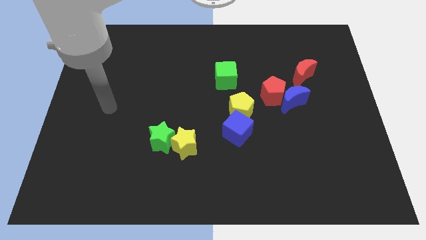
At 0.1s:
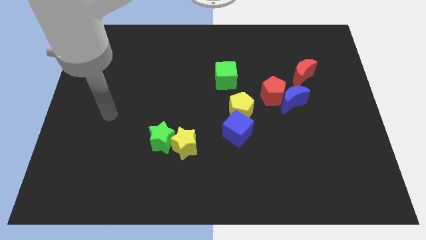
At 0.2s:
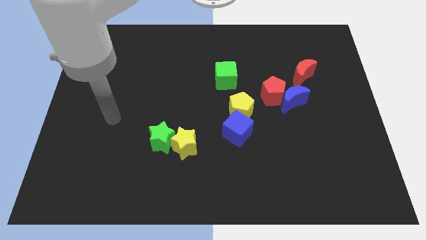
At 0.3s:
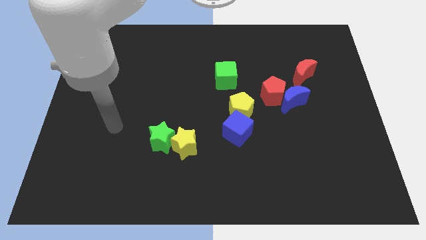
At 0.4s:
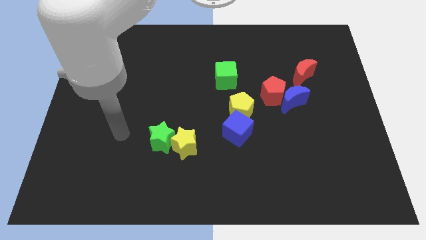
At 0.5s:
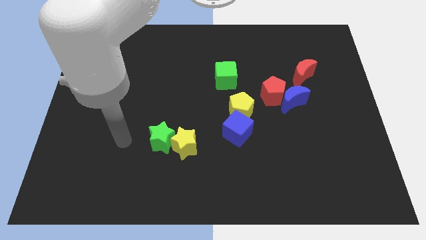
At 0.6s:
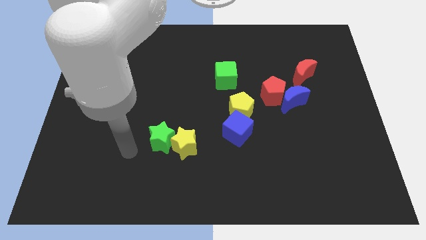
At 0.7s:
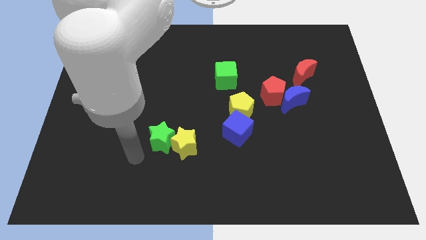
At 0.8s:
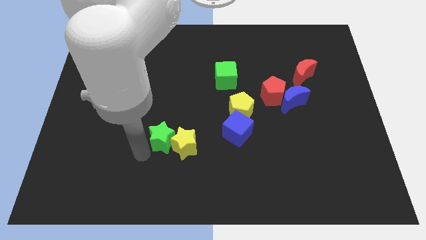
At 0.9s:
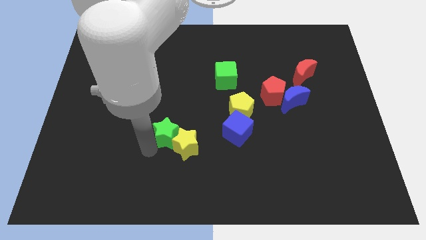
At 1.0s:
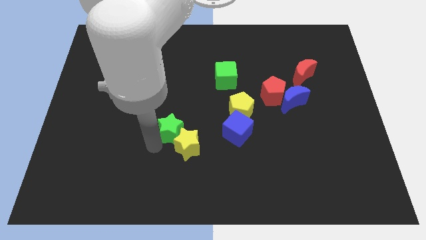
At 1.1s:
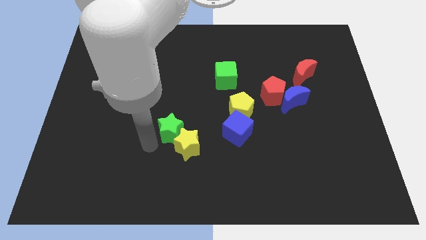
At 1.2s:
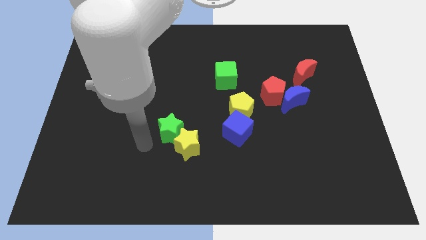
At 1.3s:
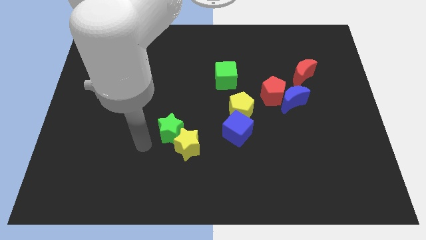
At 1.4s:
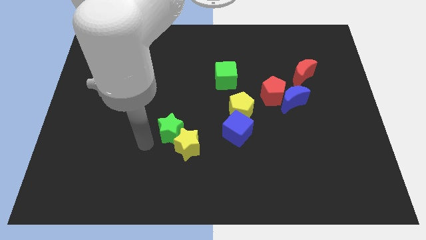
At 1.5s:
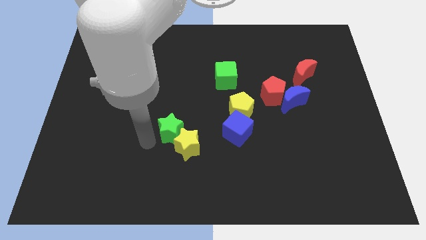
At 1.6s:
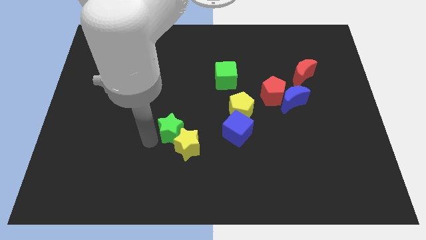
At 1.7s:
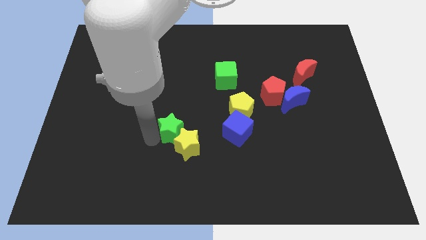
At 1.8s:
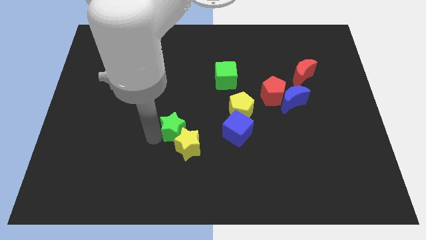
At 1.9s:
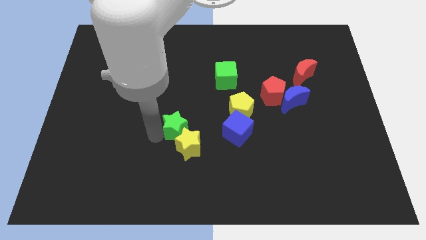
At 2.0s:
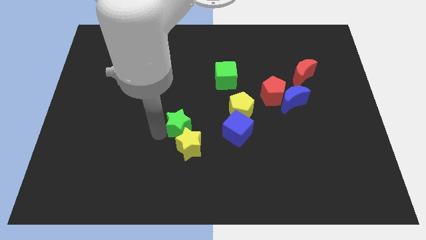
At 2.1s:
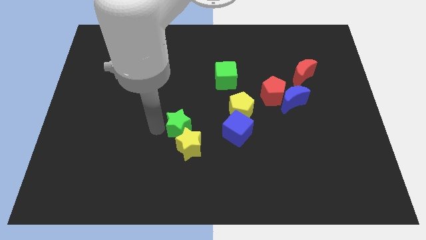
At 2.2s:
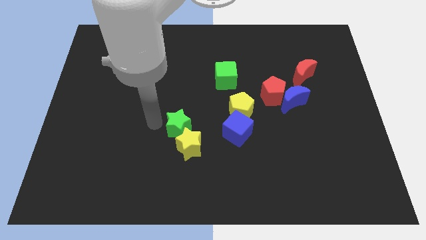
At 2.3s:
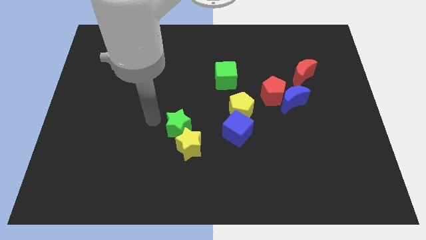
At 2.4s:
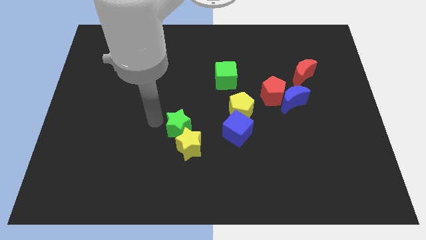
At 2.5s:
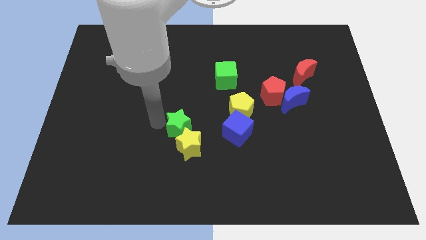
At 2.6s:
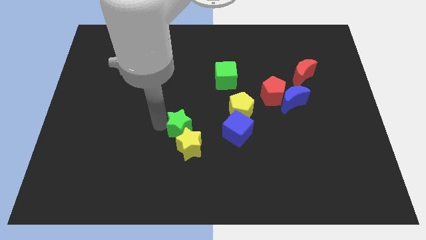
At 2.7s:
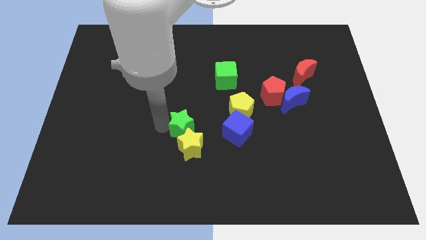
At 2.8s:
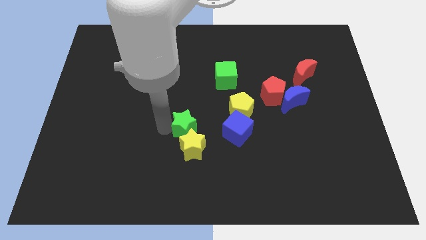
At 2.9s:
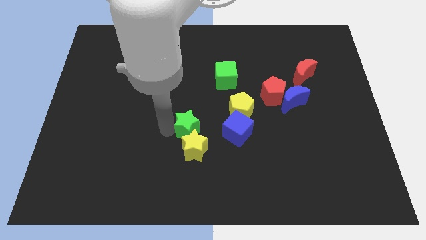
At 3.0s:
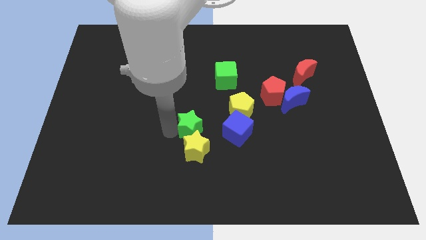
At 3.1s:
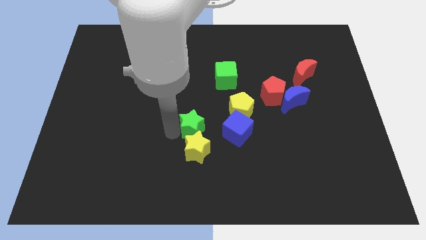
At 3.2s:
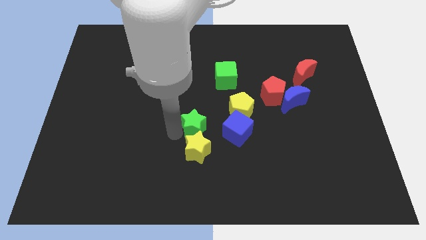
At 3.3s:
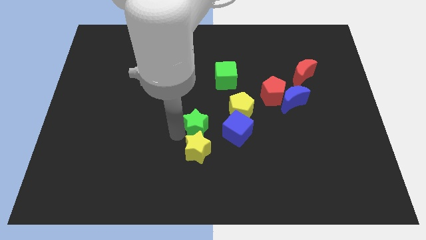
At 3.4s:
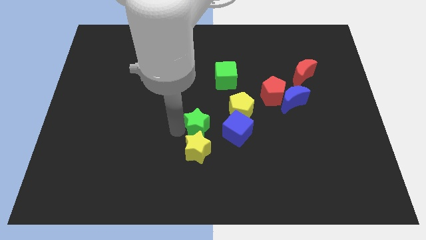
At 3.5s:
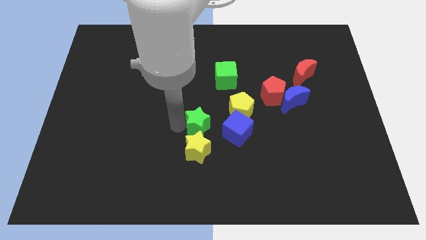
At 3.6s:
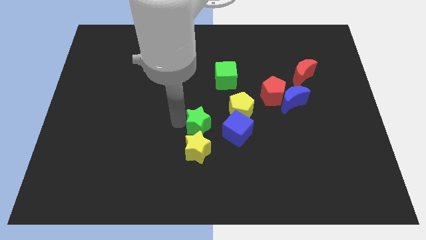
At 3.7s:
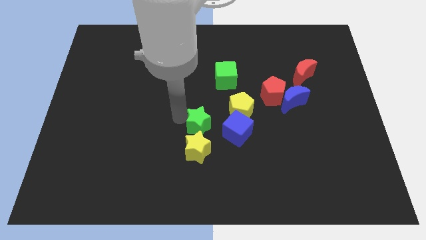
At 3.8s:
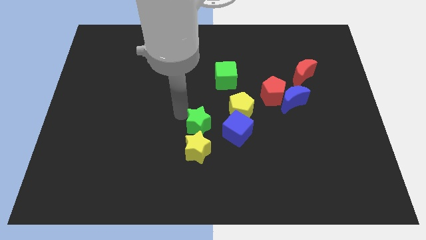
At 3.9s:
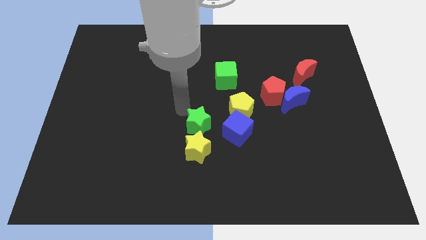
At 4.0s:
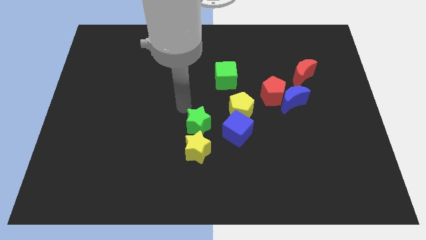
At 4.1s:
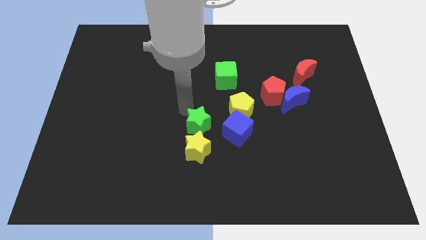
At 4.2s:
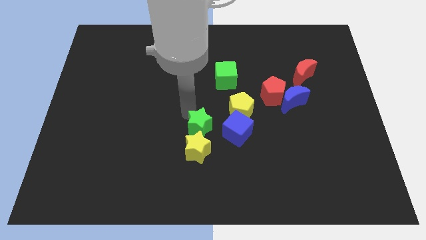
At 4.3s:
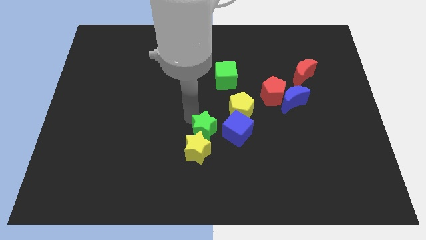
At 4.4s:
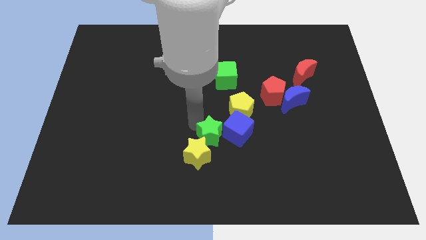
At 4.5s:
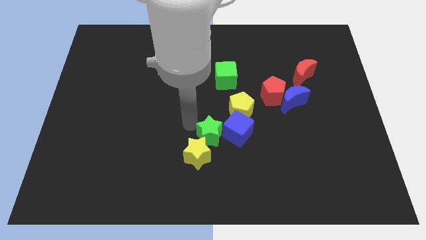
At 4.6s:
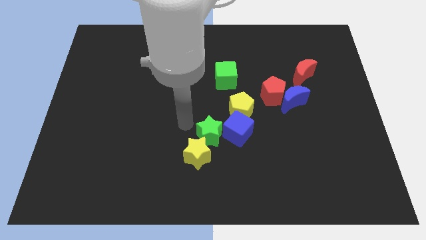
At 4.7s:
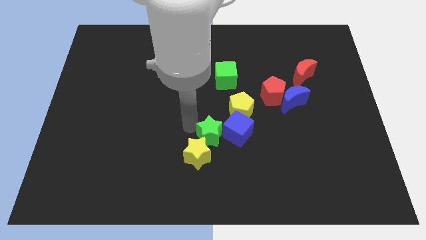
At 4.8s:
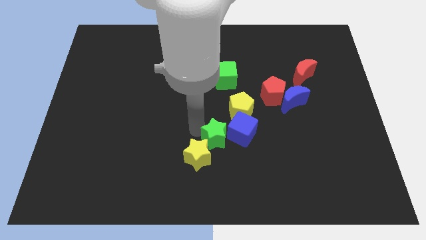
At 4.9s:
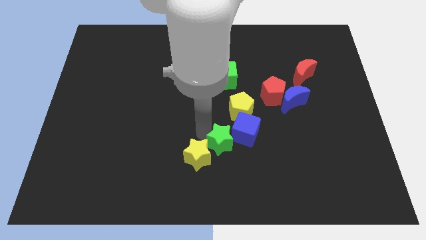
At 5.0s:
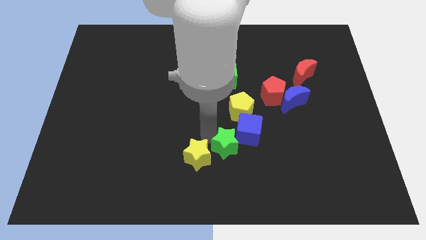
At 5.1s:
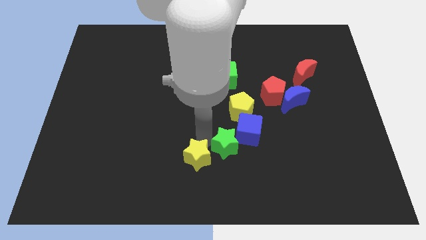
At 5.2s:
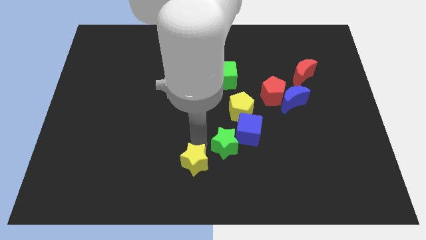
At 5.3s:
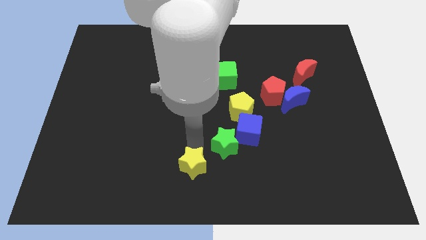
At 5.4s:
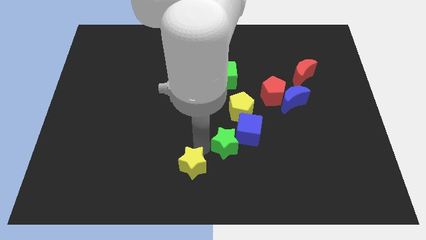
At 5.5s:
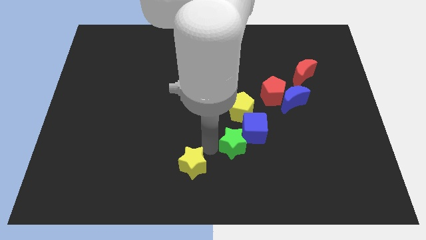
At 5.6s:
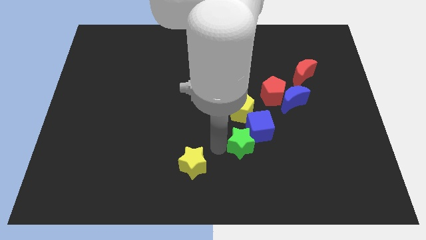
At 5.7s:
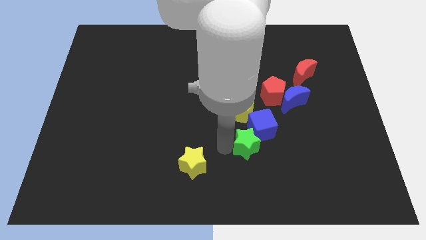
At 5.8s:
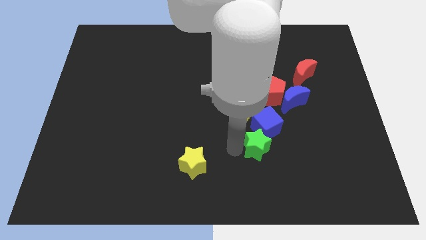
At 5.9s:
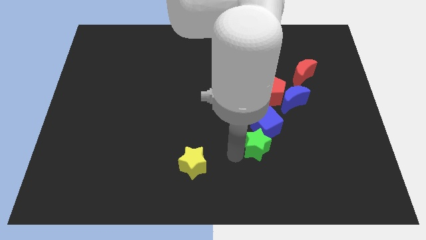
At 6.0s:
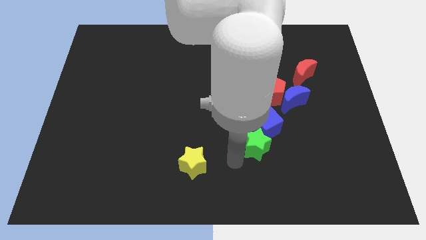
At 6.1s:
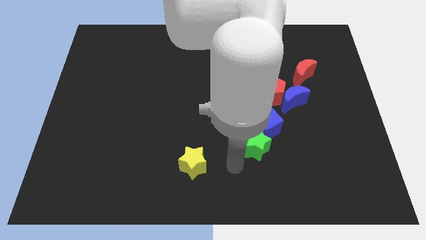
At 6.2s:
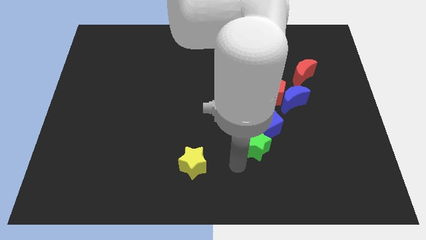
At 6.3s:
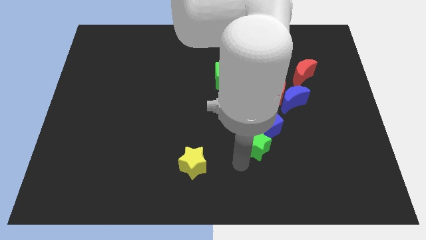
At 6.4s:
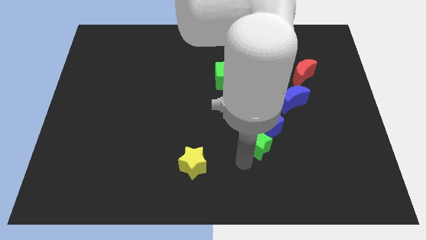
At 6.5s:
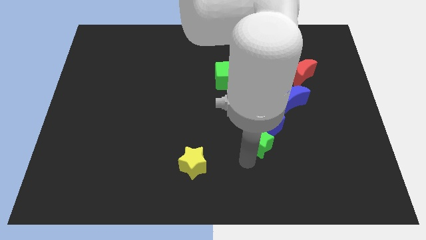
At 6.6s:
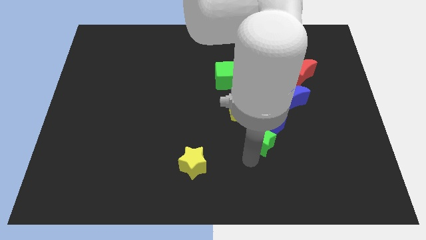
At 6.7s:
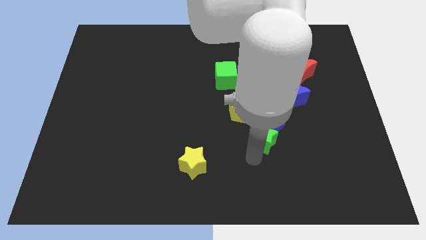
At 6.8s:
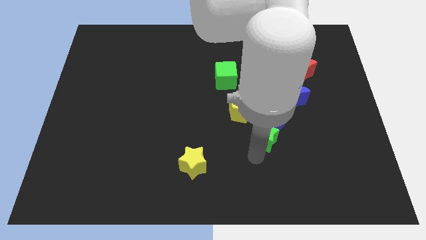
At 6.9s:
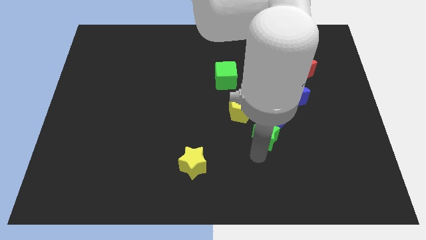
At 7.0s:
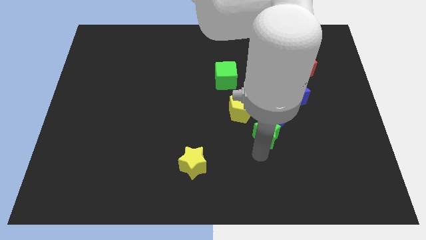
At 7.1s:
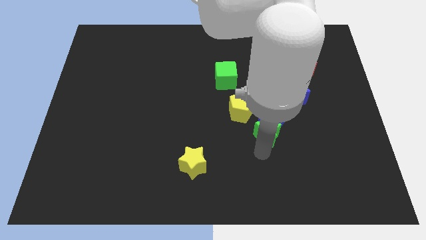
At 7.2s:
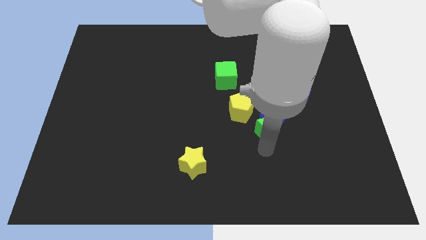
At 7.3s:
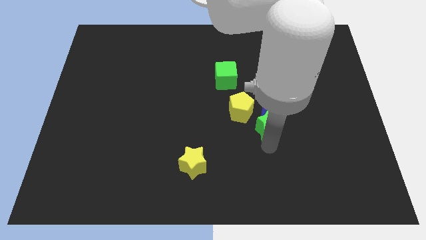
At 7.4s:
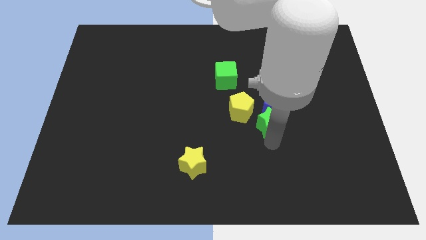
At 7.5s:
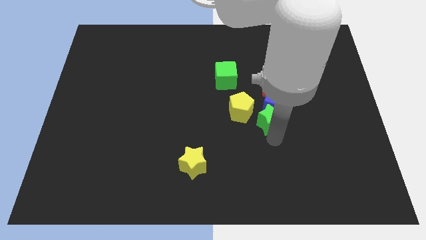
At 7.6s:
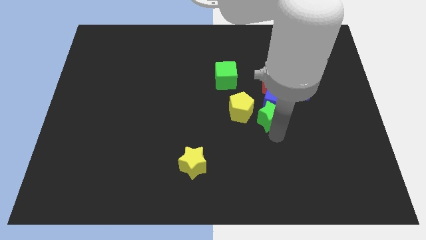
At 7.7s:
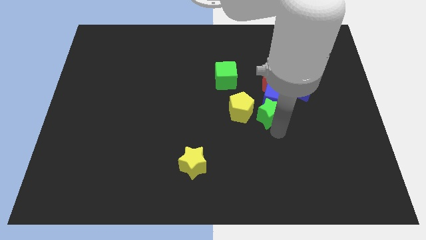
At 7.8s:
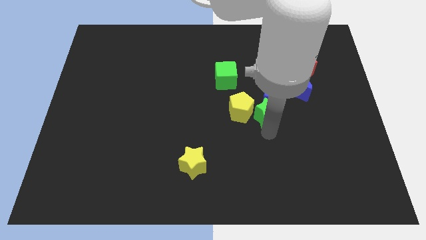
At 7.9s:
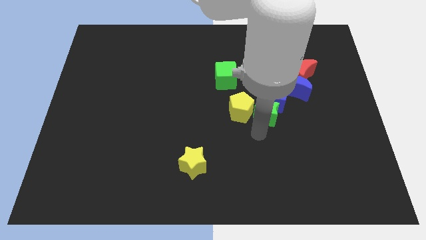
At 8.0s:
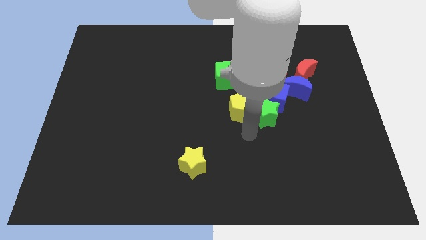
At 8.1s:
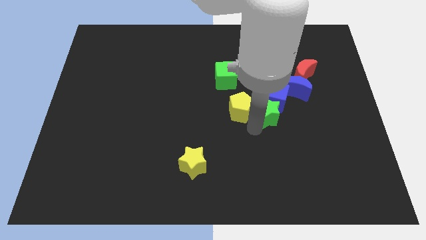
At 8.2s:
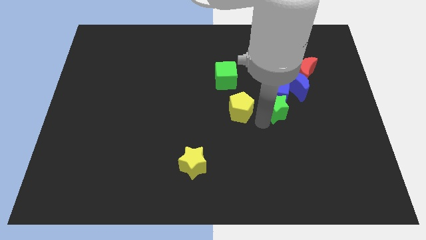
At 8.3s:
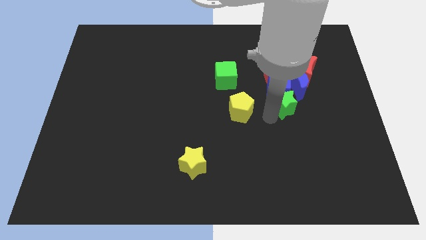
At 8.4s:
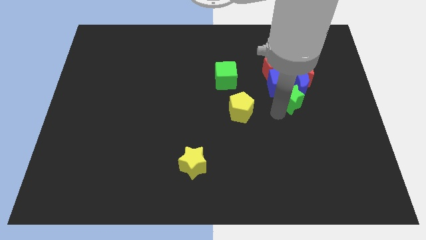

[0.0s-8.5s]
put the green star next to the blue moon
